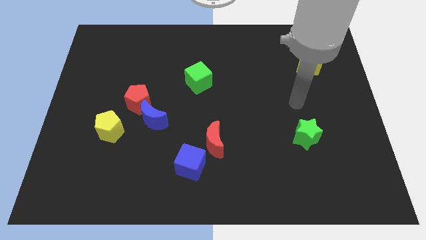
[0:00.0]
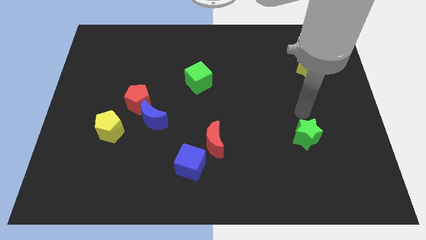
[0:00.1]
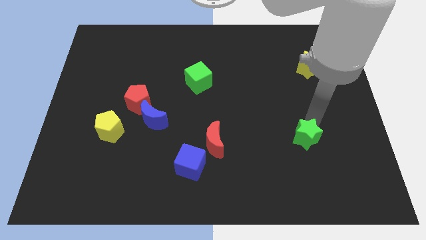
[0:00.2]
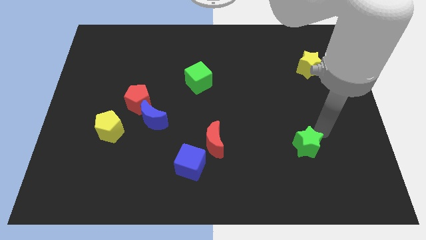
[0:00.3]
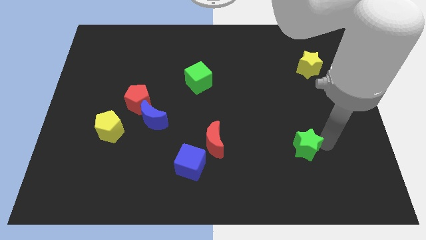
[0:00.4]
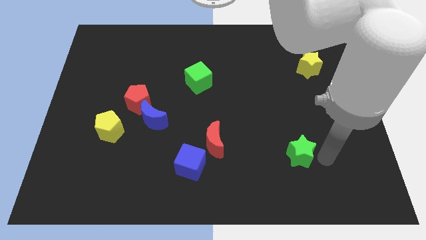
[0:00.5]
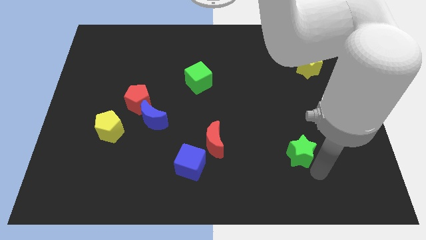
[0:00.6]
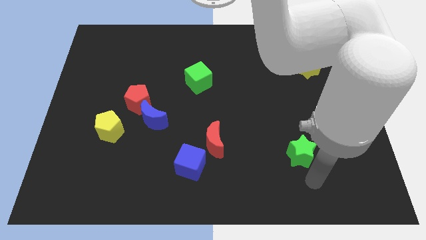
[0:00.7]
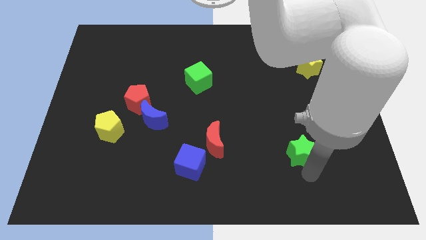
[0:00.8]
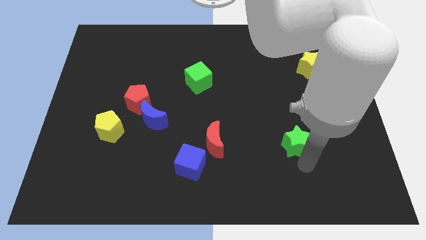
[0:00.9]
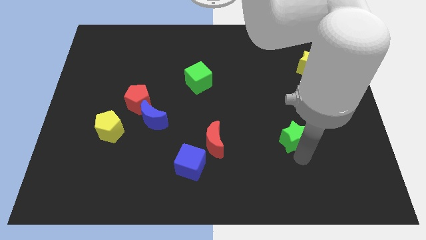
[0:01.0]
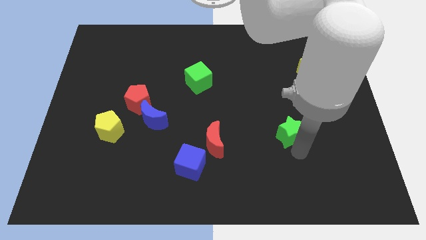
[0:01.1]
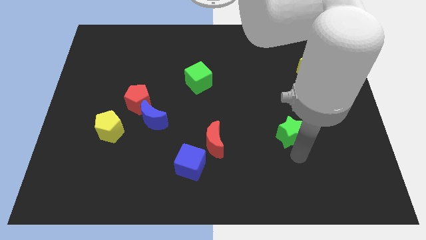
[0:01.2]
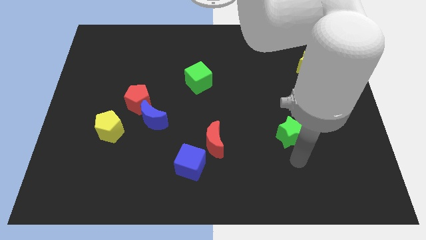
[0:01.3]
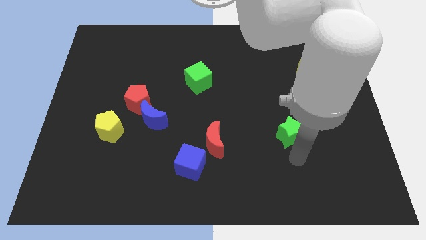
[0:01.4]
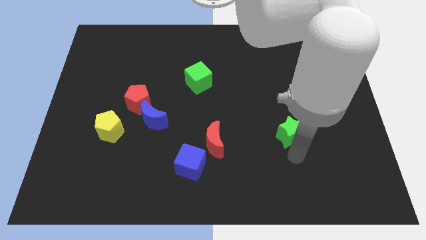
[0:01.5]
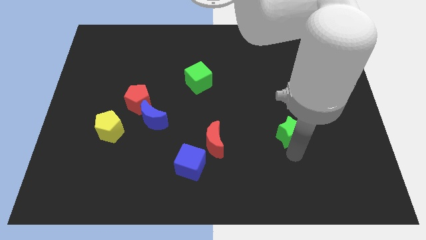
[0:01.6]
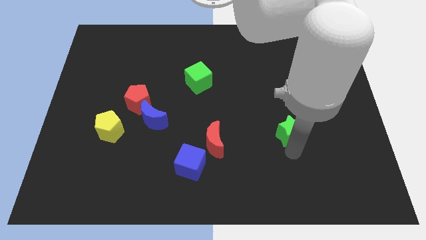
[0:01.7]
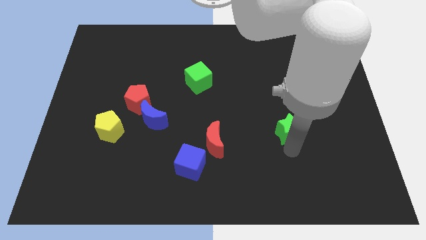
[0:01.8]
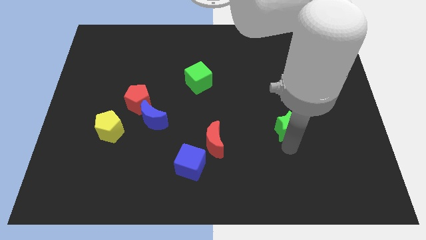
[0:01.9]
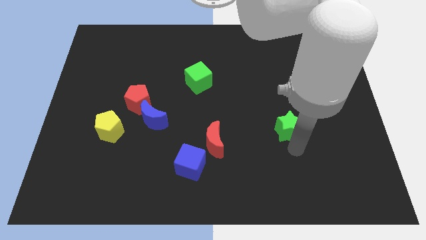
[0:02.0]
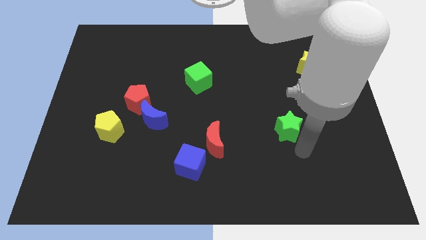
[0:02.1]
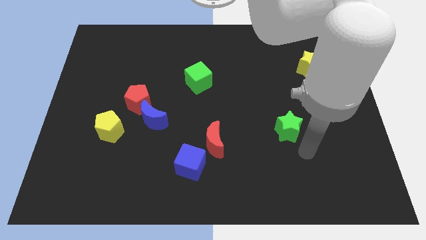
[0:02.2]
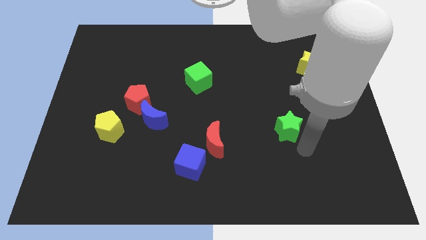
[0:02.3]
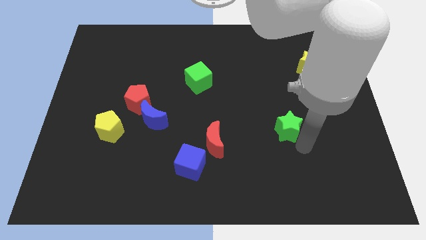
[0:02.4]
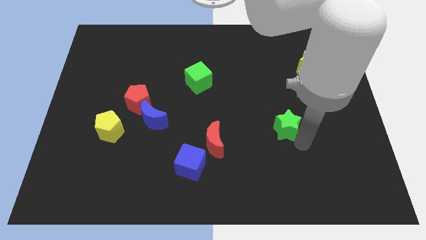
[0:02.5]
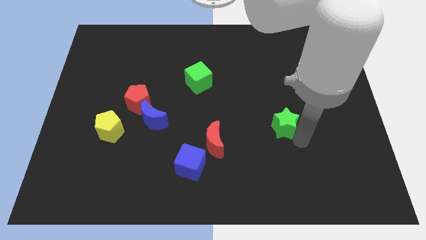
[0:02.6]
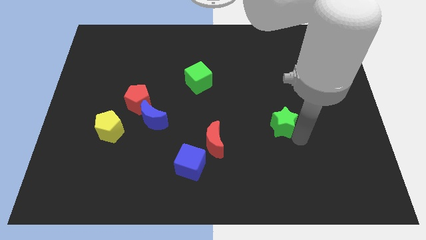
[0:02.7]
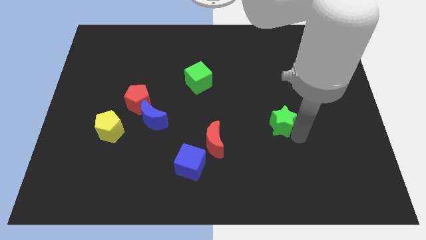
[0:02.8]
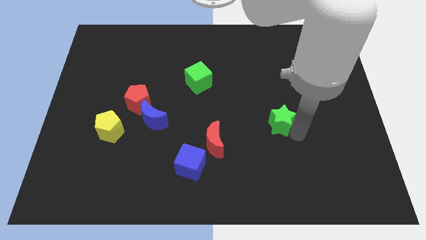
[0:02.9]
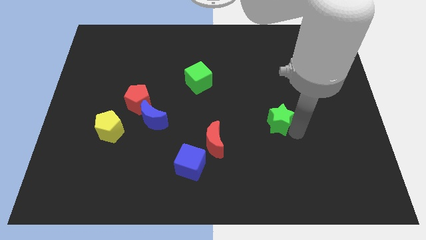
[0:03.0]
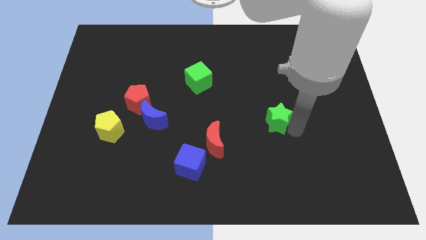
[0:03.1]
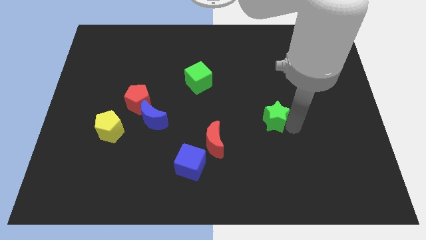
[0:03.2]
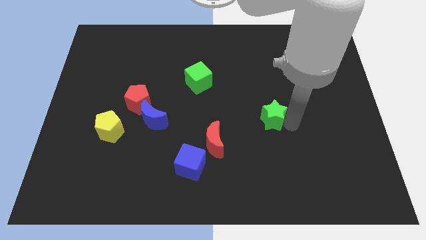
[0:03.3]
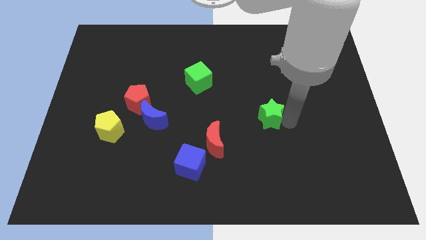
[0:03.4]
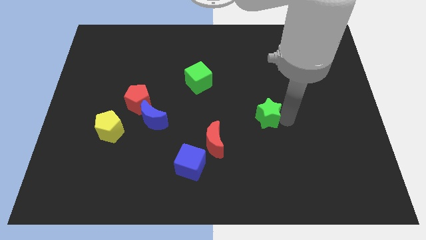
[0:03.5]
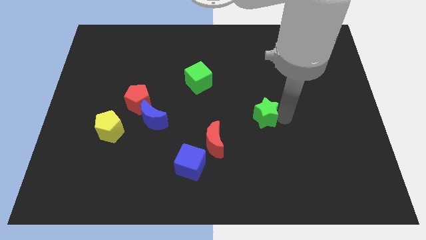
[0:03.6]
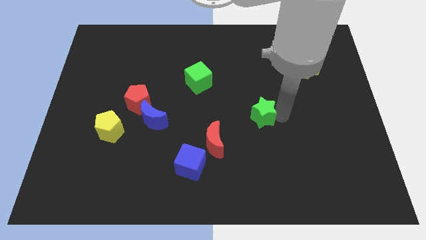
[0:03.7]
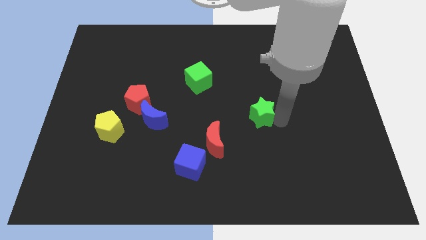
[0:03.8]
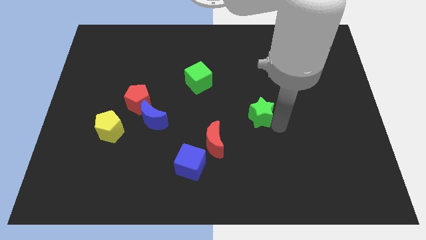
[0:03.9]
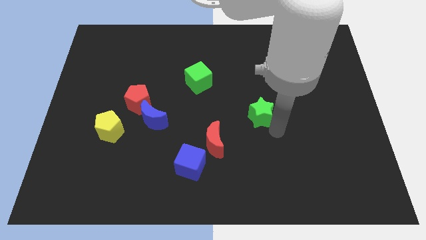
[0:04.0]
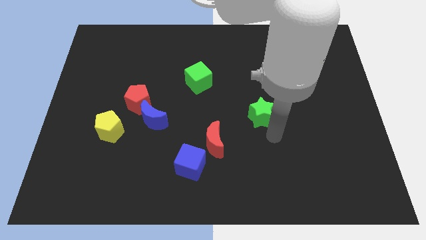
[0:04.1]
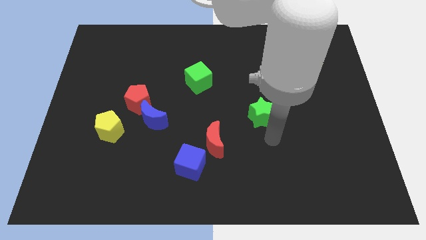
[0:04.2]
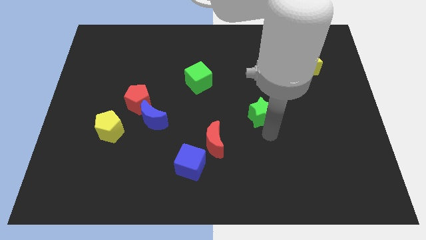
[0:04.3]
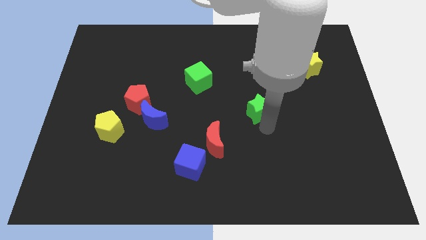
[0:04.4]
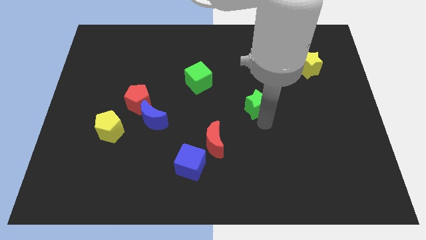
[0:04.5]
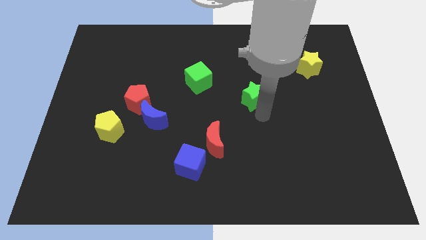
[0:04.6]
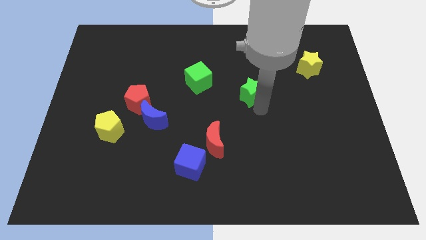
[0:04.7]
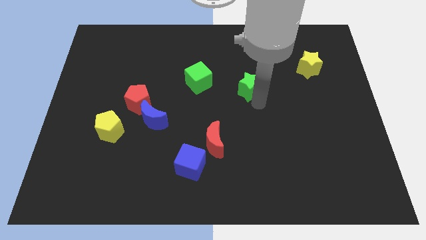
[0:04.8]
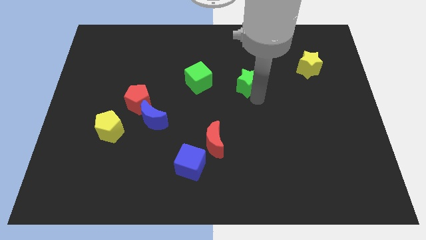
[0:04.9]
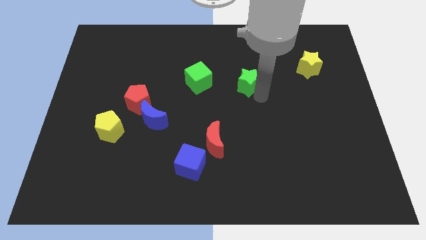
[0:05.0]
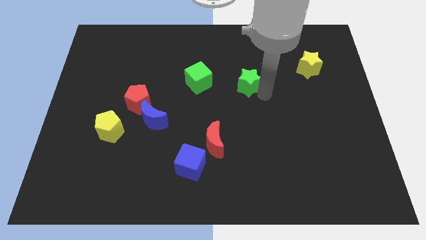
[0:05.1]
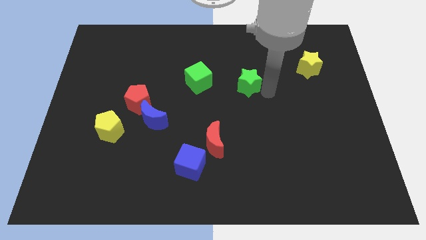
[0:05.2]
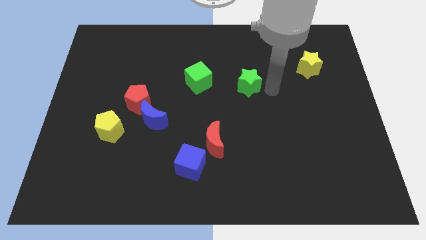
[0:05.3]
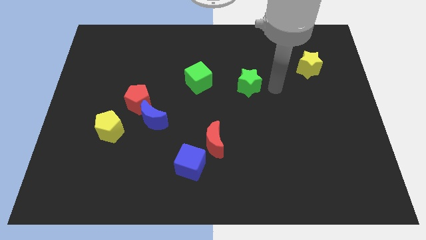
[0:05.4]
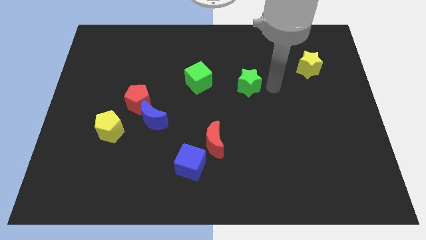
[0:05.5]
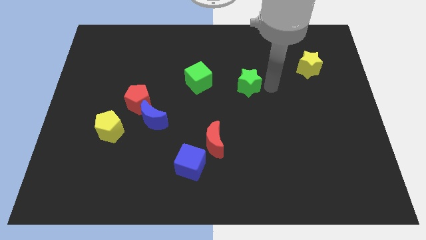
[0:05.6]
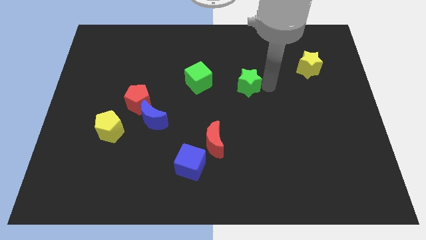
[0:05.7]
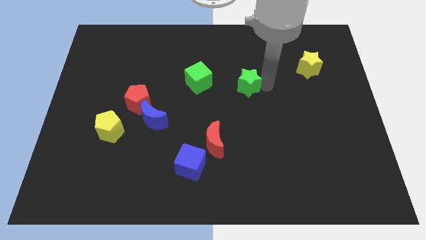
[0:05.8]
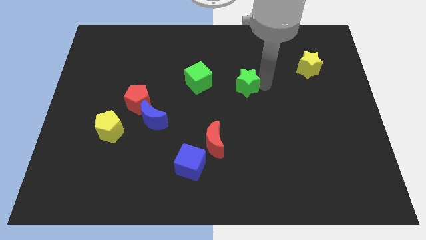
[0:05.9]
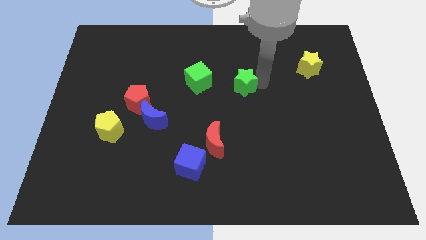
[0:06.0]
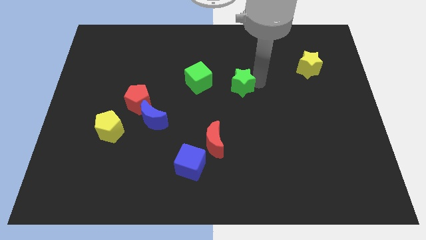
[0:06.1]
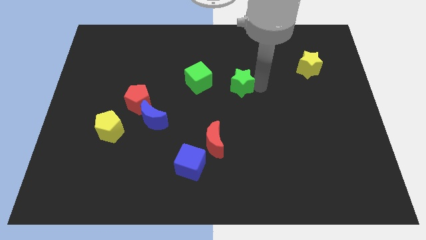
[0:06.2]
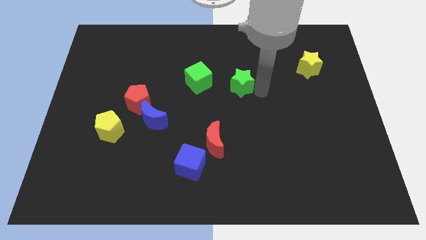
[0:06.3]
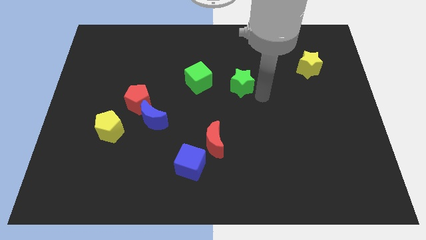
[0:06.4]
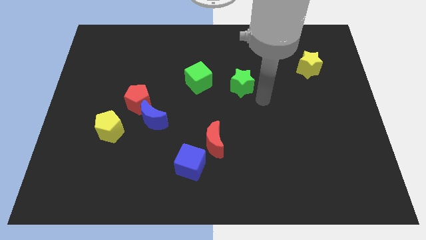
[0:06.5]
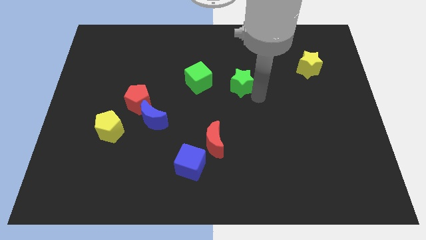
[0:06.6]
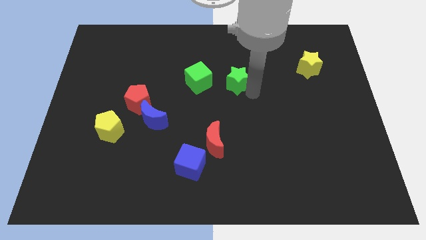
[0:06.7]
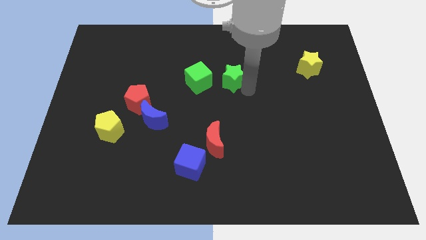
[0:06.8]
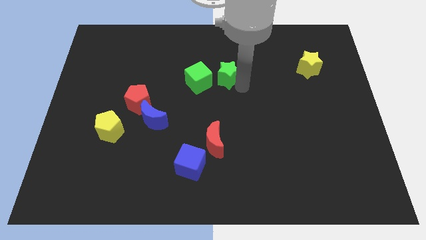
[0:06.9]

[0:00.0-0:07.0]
push the green star diagonally up and to the right of the green cube

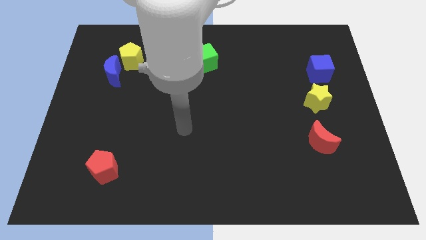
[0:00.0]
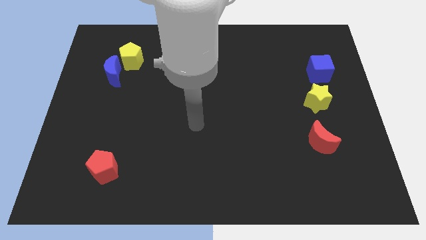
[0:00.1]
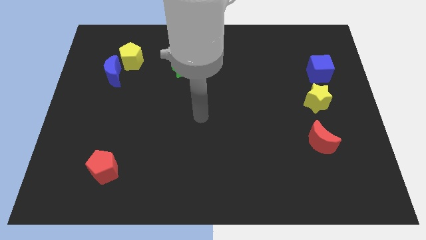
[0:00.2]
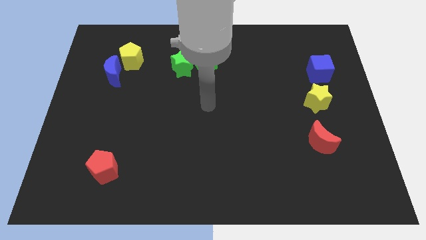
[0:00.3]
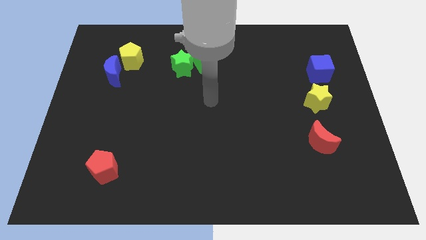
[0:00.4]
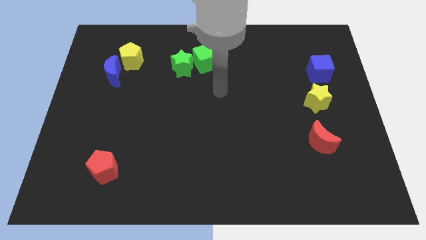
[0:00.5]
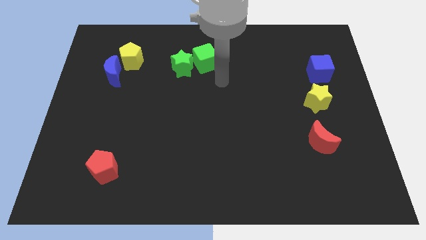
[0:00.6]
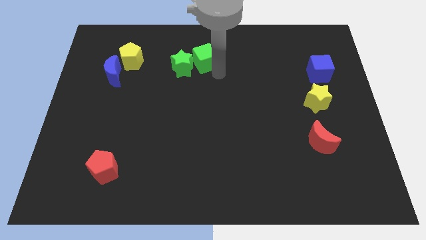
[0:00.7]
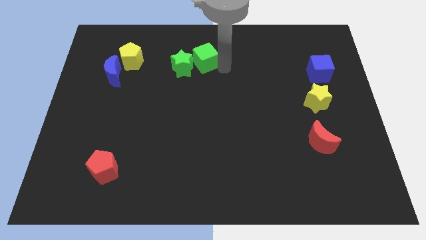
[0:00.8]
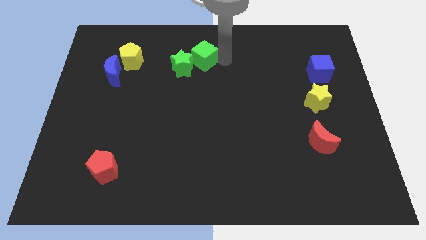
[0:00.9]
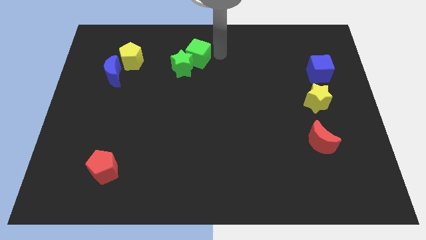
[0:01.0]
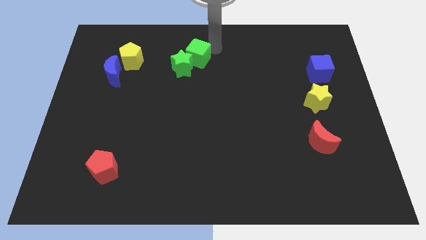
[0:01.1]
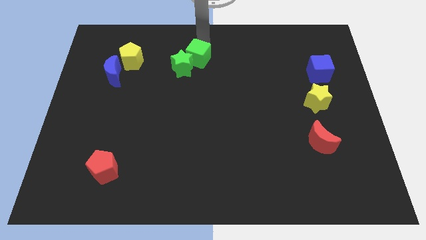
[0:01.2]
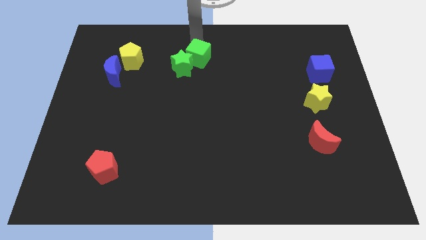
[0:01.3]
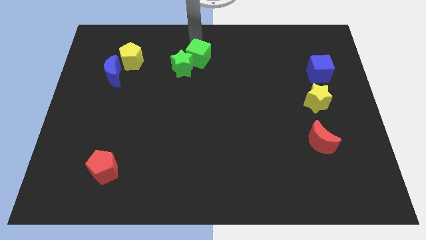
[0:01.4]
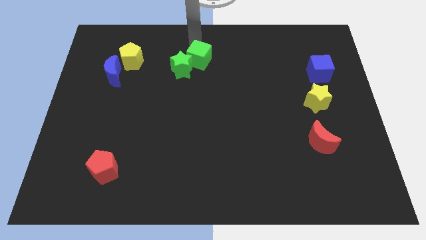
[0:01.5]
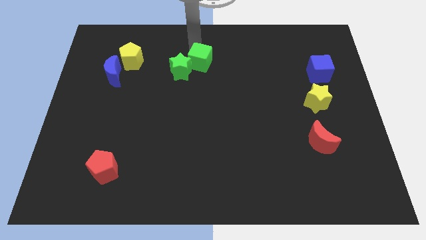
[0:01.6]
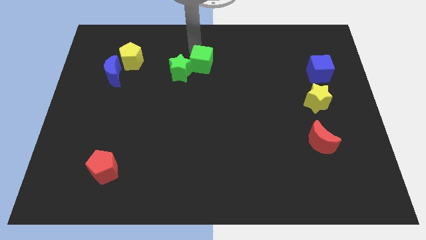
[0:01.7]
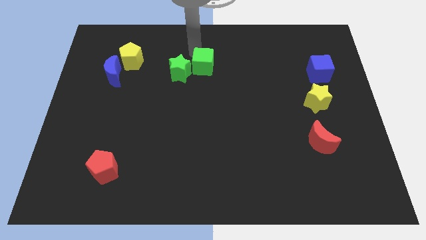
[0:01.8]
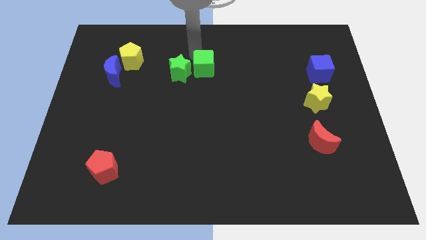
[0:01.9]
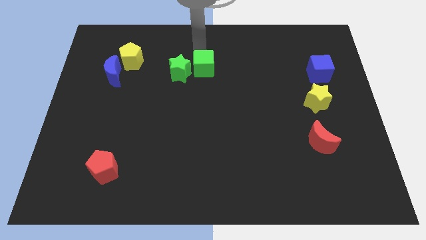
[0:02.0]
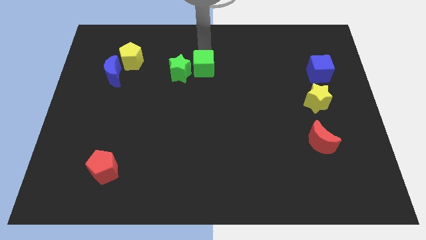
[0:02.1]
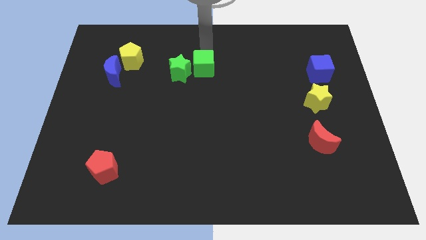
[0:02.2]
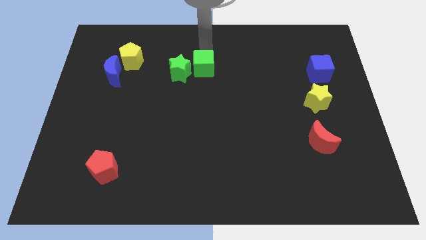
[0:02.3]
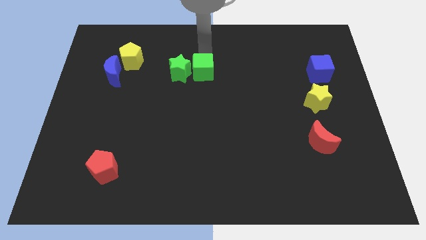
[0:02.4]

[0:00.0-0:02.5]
put the green cube diagonally down and to the right of the green star
